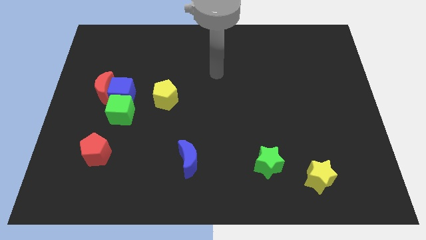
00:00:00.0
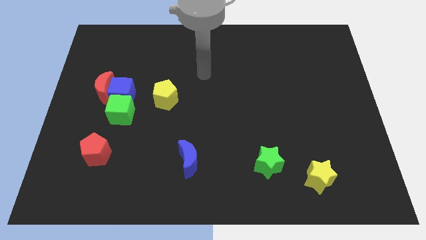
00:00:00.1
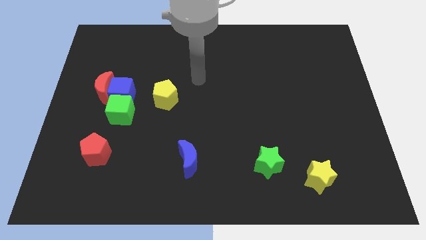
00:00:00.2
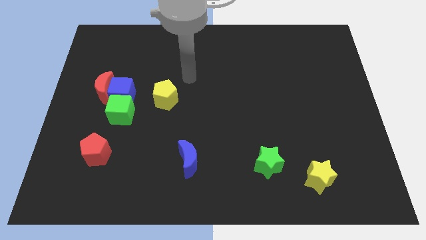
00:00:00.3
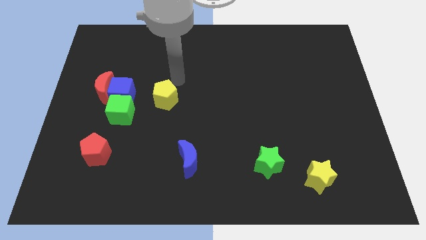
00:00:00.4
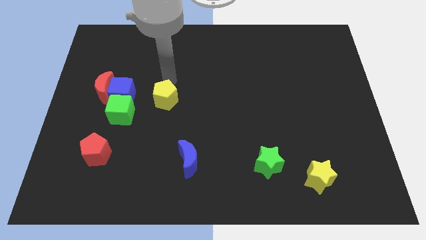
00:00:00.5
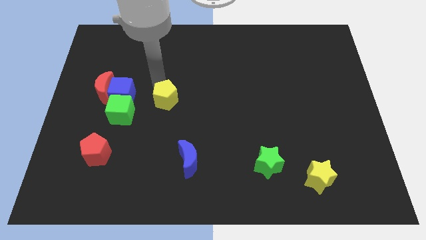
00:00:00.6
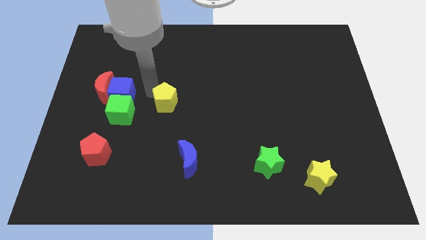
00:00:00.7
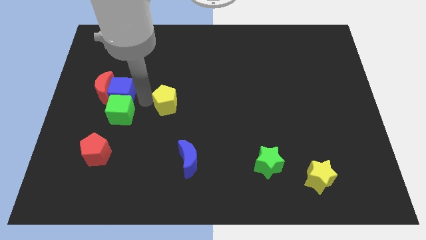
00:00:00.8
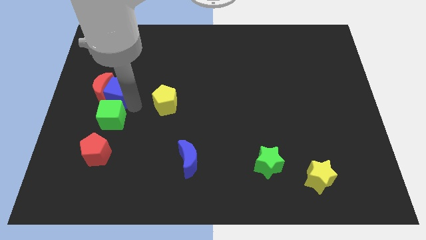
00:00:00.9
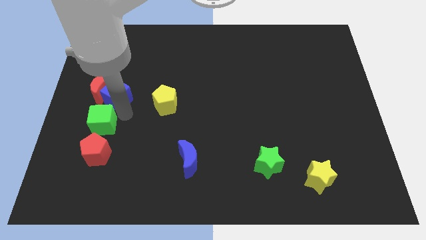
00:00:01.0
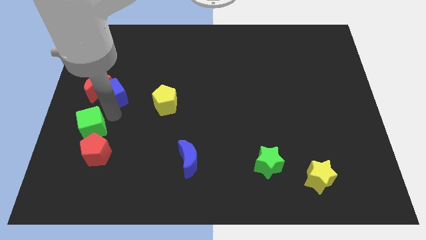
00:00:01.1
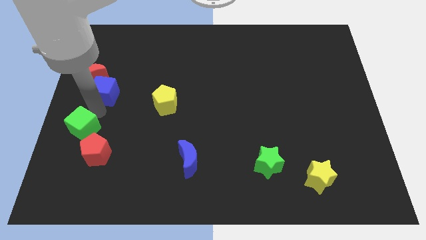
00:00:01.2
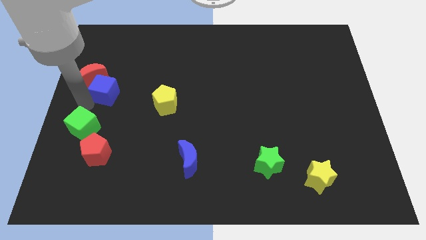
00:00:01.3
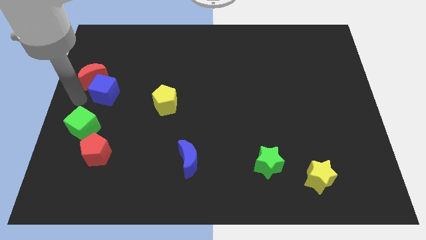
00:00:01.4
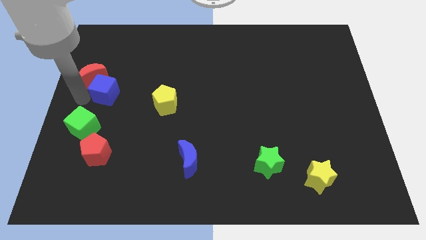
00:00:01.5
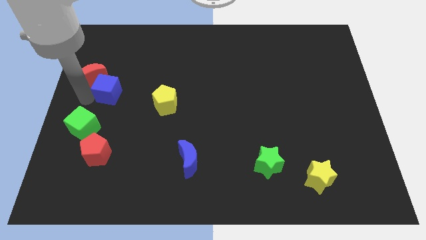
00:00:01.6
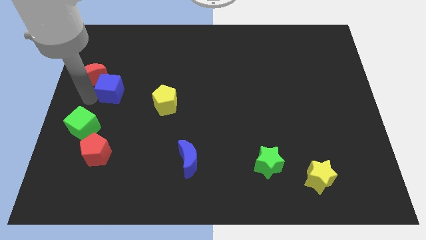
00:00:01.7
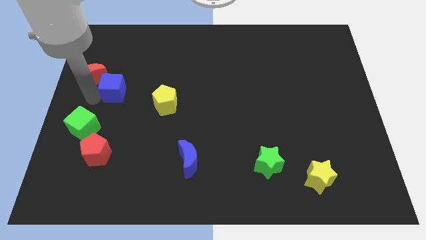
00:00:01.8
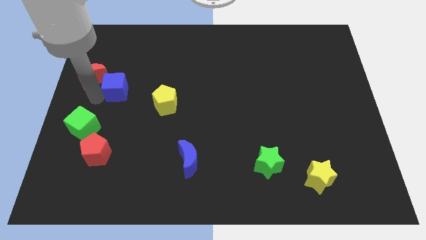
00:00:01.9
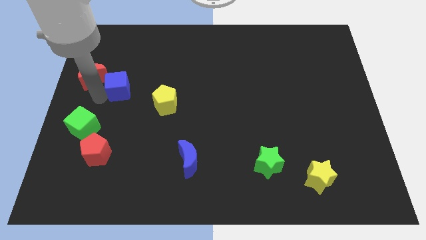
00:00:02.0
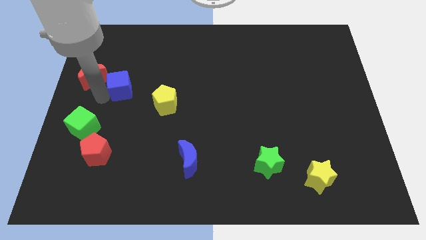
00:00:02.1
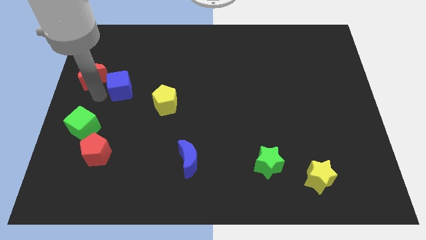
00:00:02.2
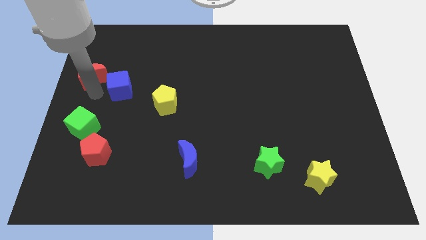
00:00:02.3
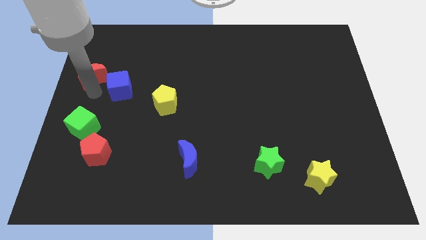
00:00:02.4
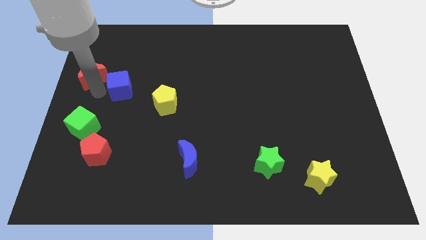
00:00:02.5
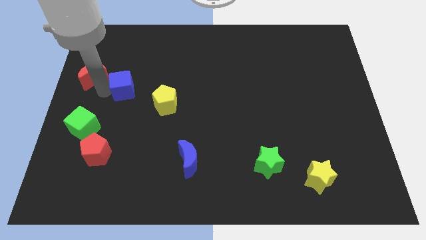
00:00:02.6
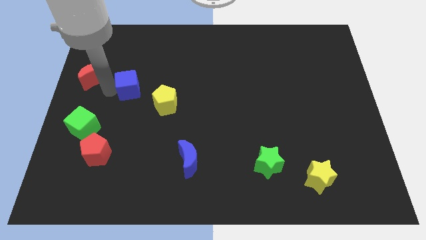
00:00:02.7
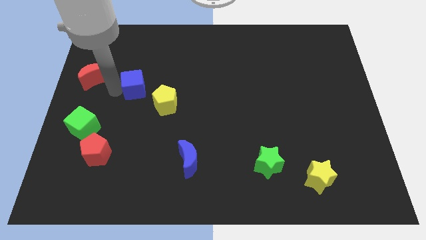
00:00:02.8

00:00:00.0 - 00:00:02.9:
separate the blue cube from the red moon and green cube

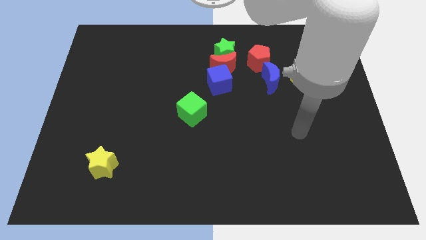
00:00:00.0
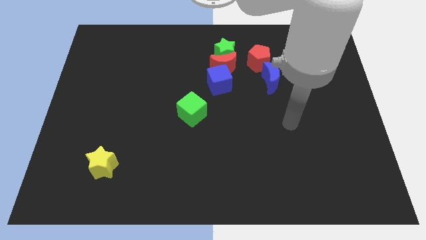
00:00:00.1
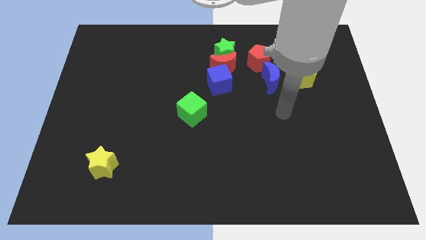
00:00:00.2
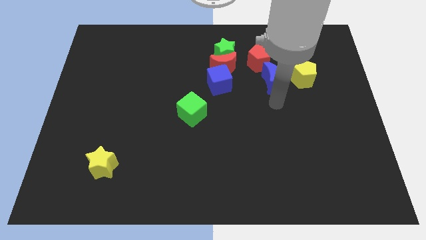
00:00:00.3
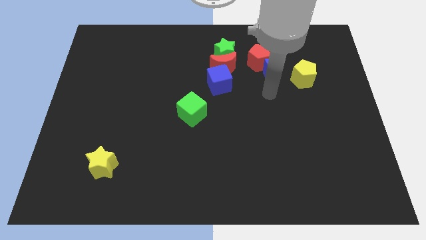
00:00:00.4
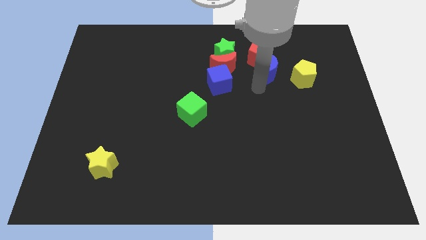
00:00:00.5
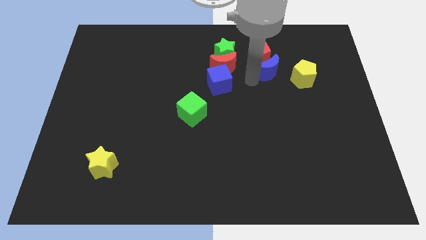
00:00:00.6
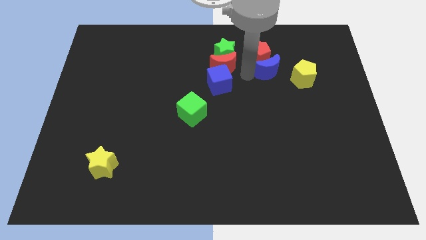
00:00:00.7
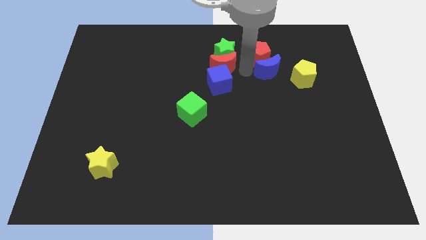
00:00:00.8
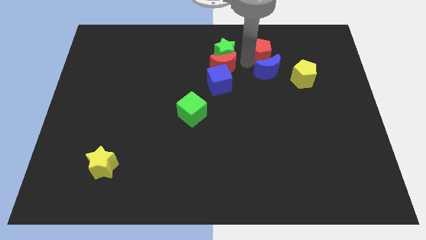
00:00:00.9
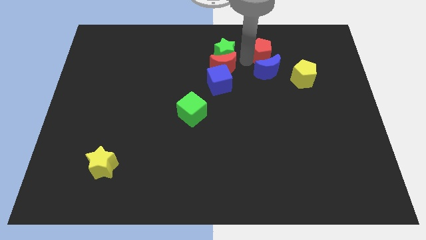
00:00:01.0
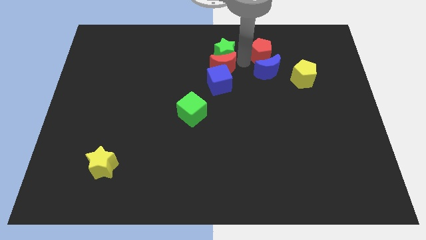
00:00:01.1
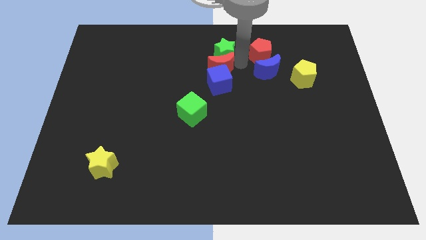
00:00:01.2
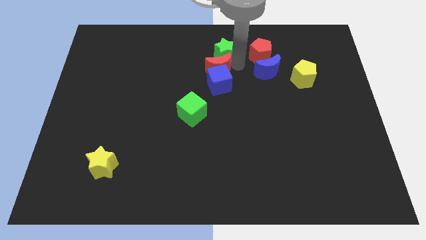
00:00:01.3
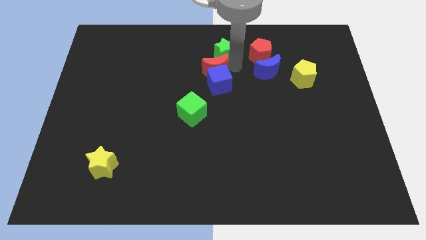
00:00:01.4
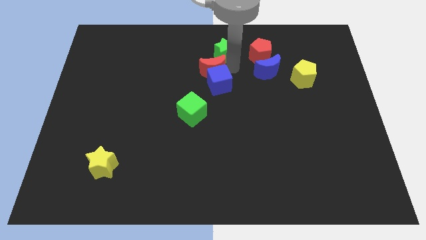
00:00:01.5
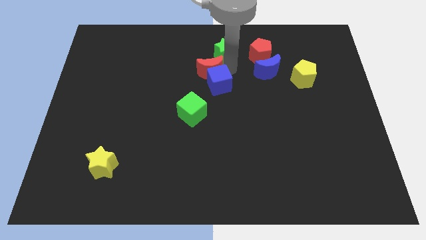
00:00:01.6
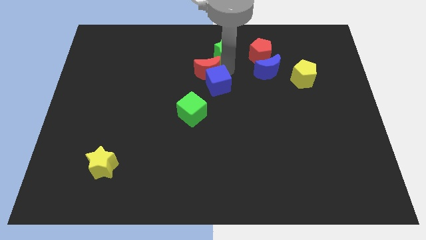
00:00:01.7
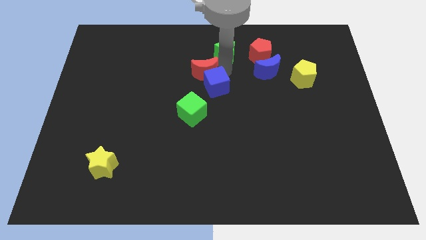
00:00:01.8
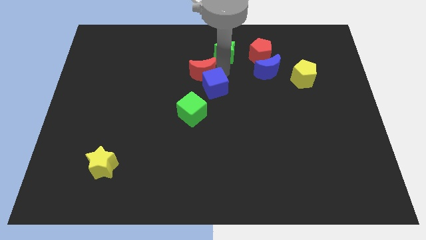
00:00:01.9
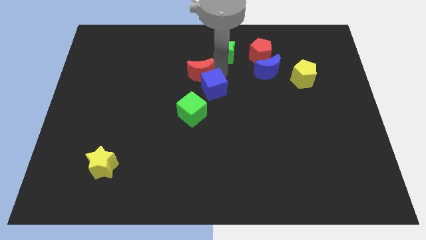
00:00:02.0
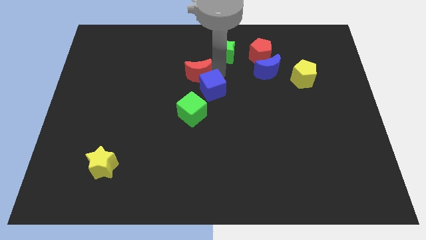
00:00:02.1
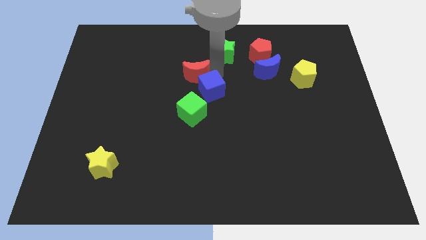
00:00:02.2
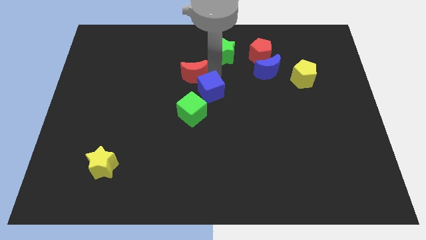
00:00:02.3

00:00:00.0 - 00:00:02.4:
pull the red moon apart from the green star, blue cube, and red pentagon

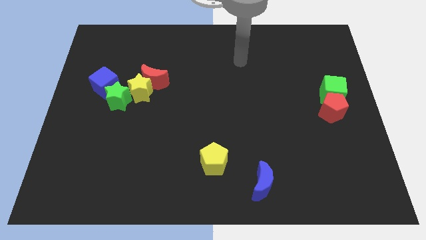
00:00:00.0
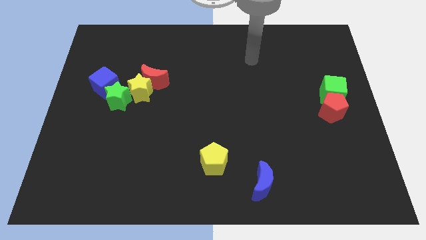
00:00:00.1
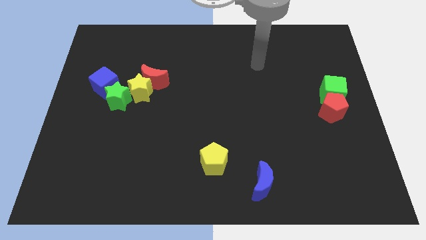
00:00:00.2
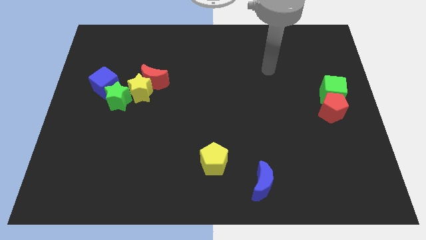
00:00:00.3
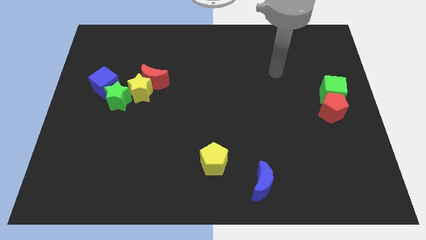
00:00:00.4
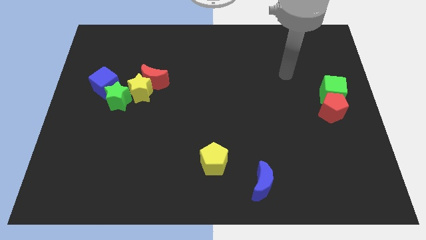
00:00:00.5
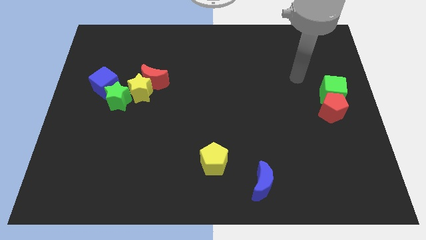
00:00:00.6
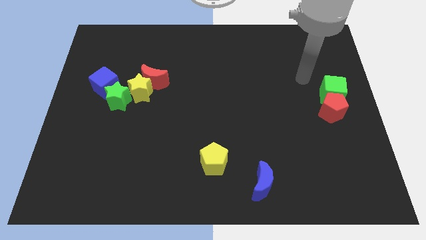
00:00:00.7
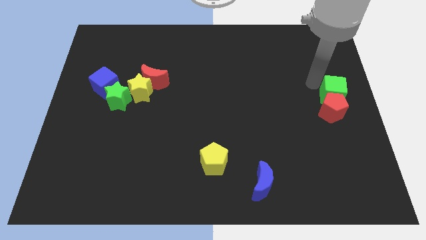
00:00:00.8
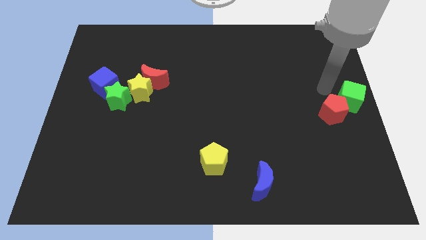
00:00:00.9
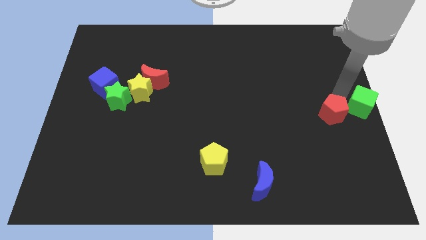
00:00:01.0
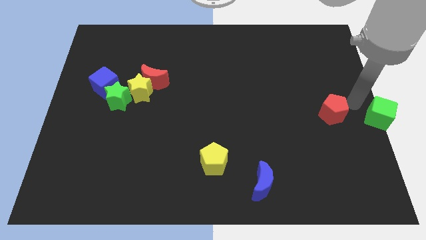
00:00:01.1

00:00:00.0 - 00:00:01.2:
move the red pentagon away from the green cube

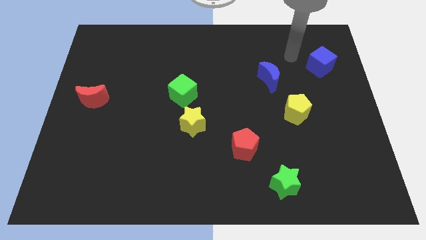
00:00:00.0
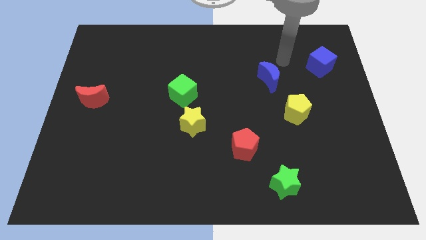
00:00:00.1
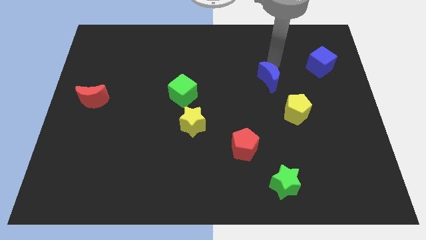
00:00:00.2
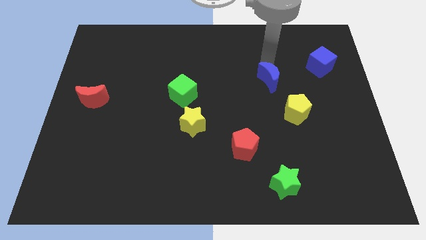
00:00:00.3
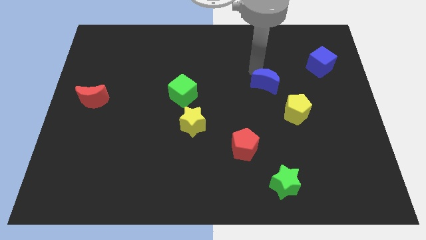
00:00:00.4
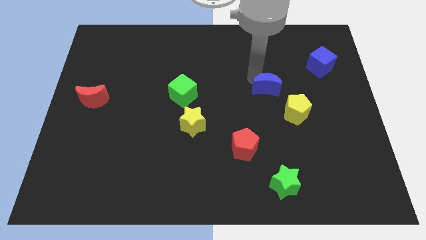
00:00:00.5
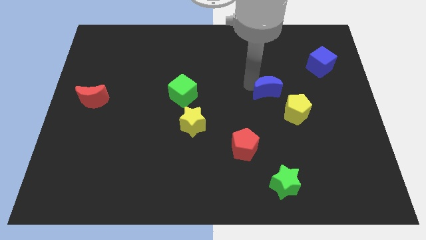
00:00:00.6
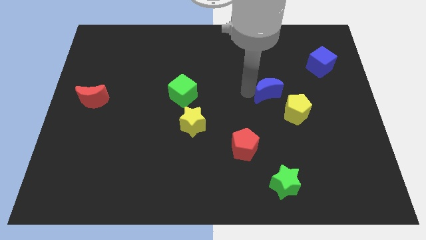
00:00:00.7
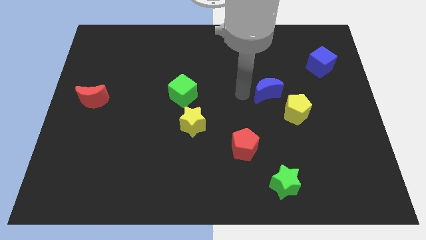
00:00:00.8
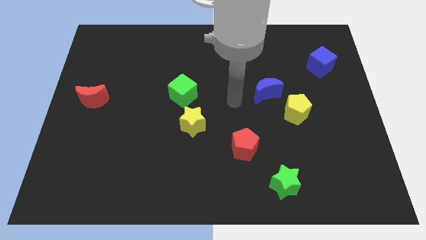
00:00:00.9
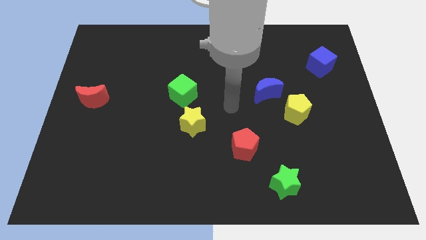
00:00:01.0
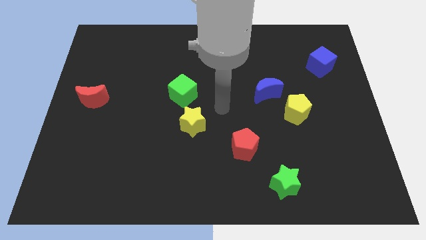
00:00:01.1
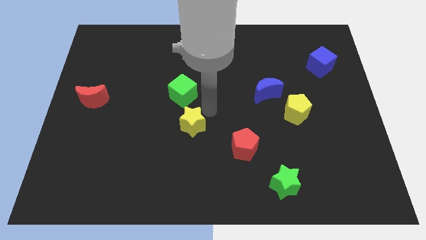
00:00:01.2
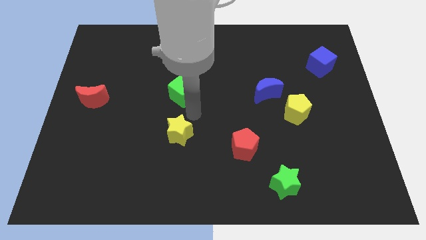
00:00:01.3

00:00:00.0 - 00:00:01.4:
separate the green cube from the yellow star

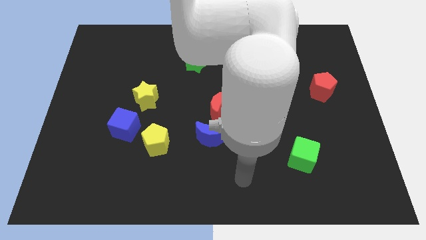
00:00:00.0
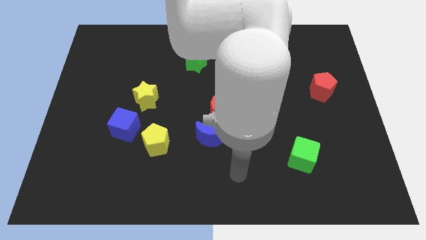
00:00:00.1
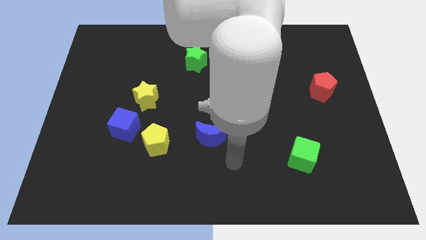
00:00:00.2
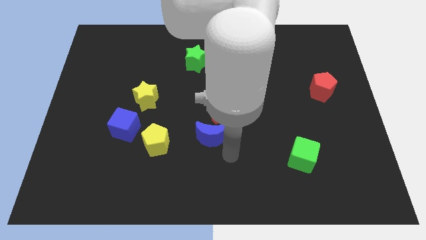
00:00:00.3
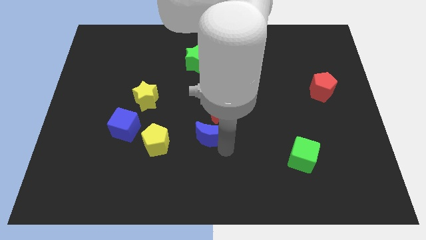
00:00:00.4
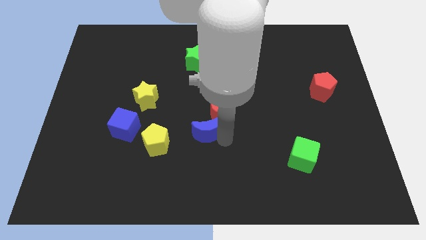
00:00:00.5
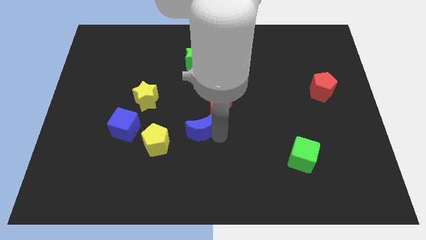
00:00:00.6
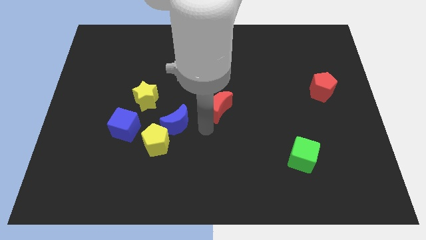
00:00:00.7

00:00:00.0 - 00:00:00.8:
pull the red moon apart from the blue moon

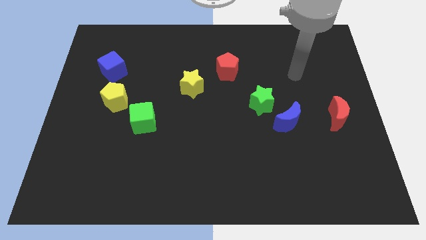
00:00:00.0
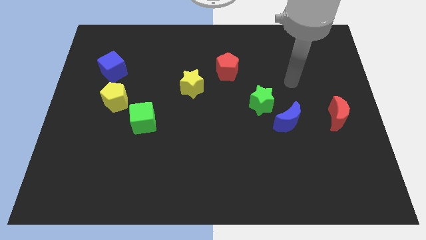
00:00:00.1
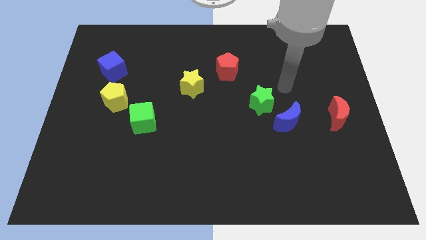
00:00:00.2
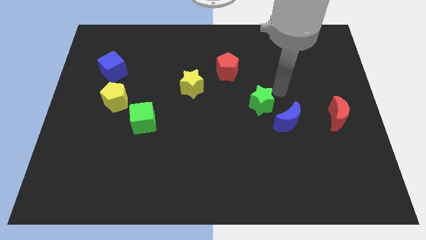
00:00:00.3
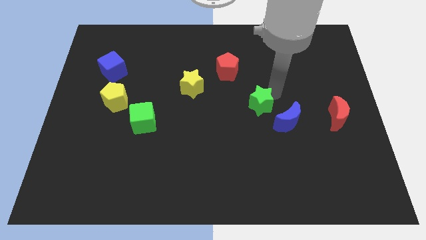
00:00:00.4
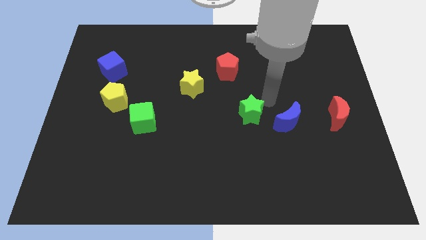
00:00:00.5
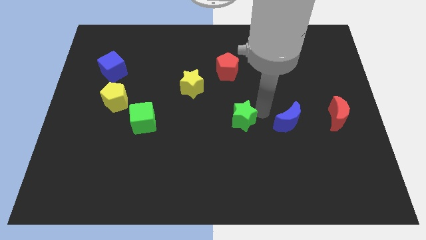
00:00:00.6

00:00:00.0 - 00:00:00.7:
pull the blue moon apart from the green star

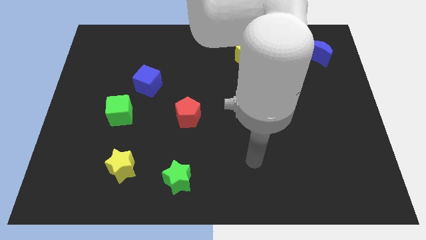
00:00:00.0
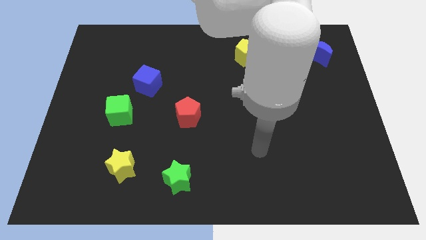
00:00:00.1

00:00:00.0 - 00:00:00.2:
pull the red moon apart from the yellow pentagon
